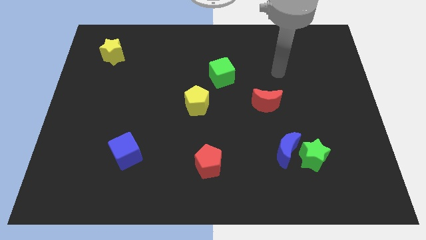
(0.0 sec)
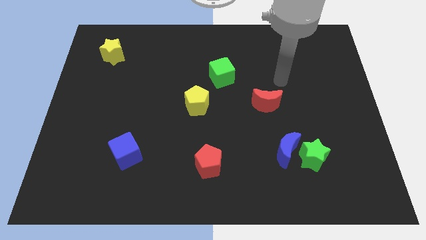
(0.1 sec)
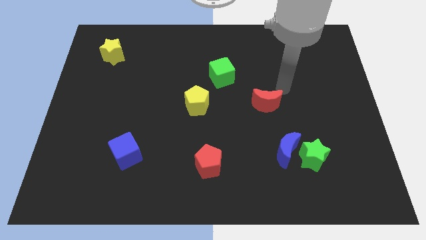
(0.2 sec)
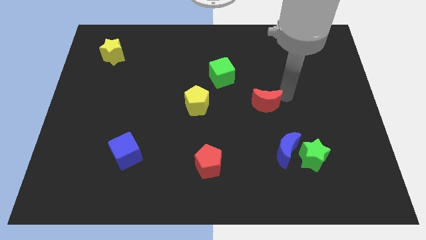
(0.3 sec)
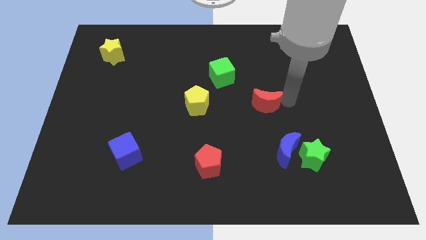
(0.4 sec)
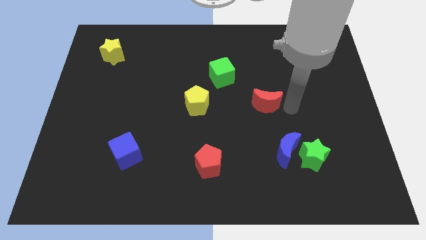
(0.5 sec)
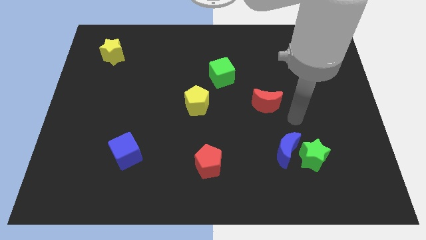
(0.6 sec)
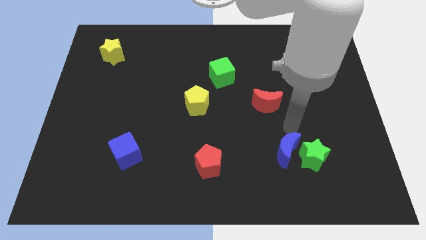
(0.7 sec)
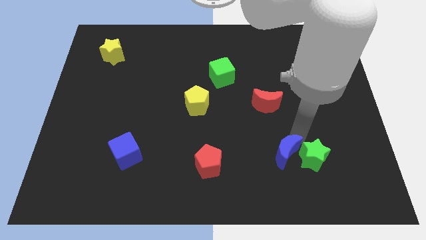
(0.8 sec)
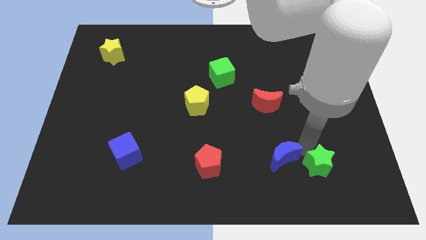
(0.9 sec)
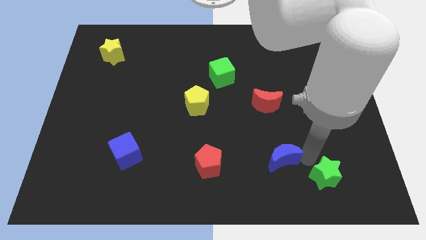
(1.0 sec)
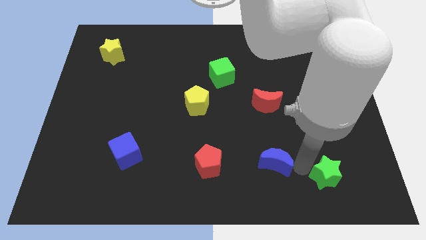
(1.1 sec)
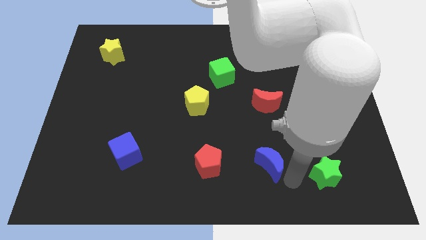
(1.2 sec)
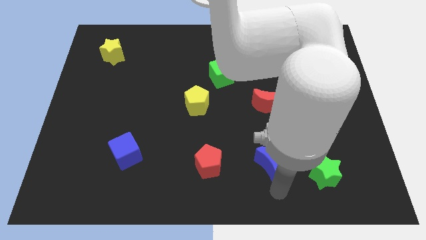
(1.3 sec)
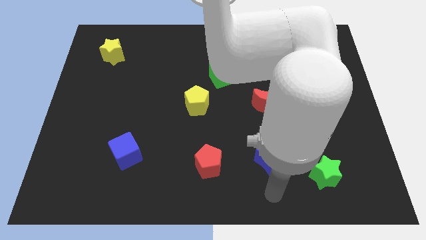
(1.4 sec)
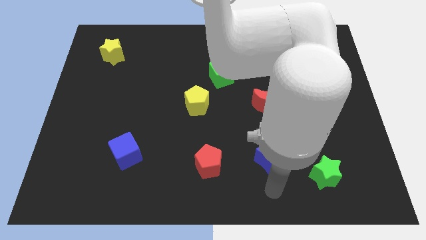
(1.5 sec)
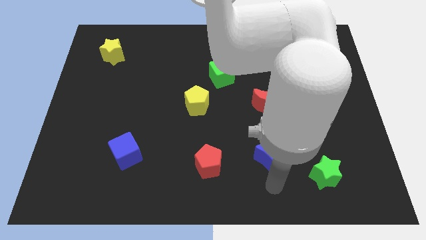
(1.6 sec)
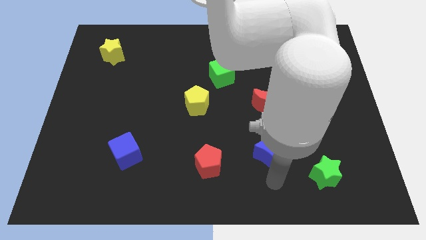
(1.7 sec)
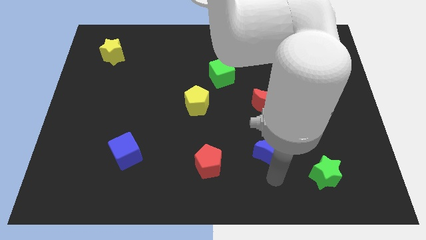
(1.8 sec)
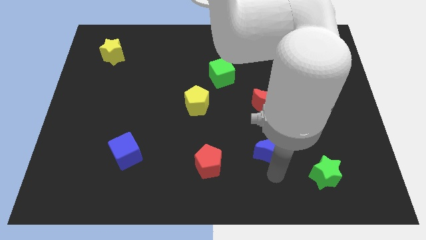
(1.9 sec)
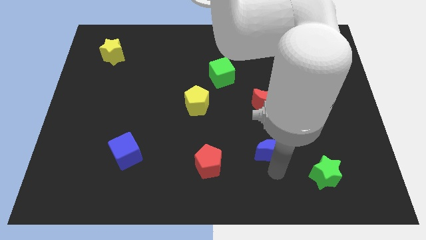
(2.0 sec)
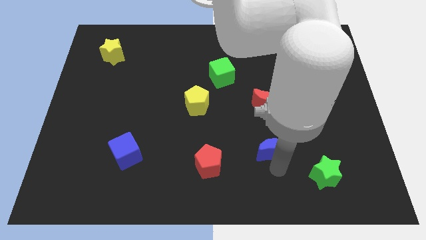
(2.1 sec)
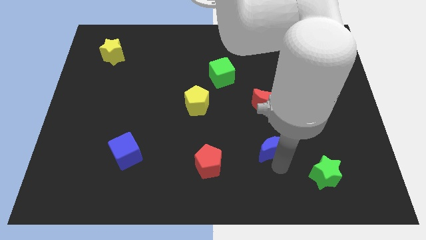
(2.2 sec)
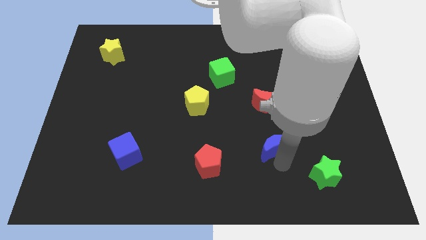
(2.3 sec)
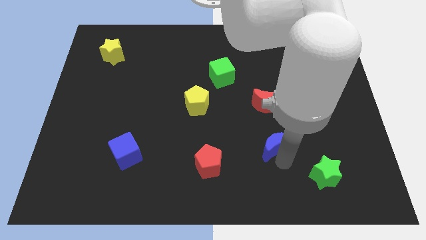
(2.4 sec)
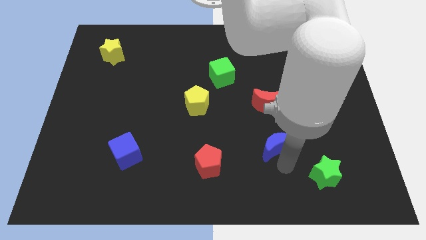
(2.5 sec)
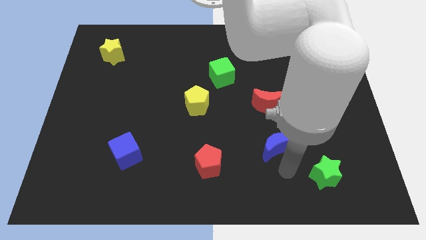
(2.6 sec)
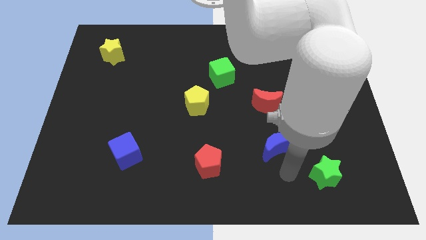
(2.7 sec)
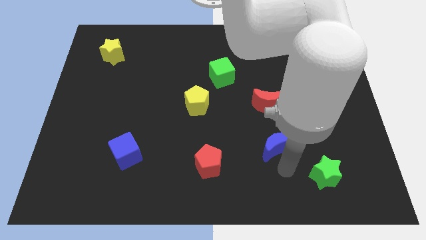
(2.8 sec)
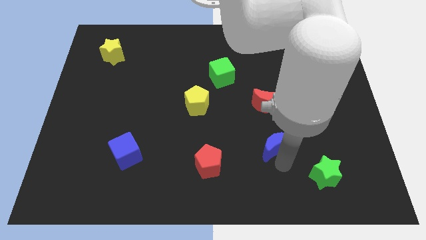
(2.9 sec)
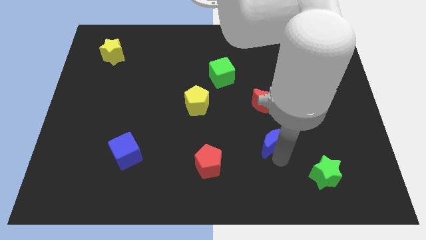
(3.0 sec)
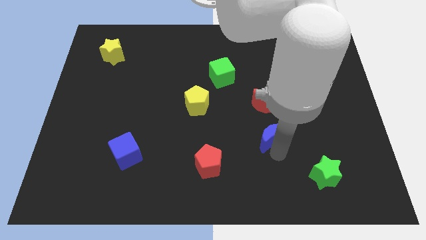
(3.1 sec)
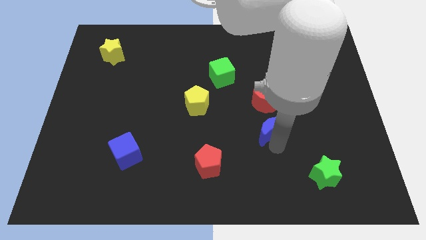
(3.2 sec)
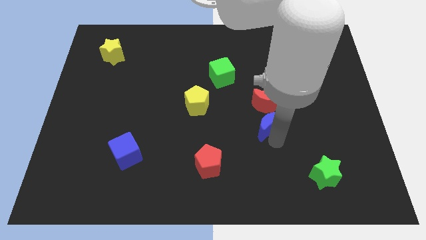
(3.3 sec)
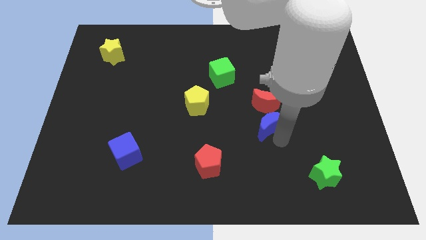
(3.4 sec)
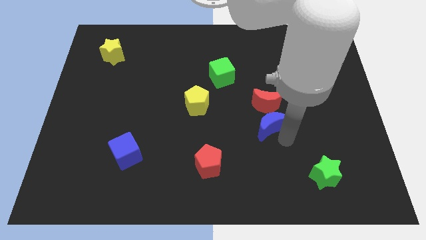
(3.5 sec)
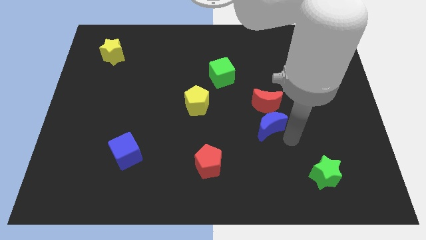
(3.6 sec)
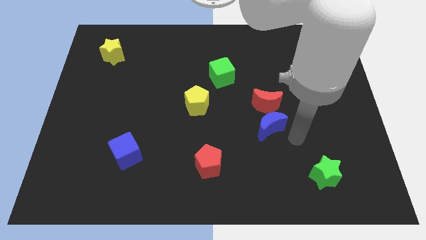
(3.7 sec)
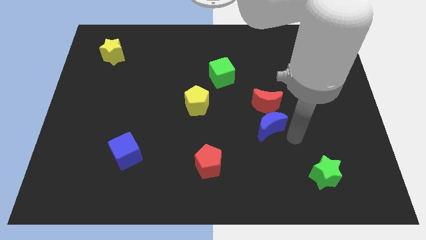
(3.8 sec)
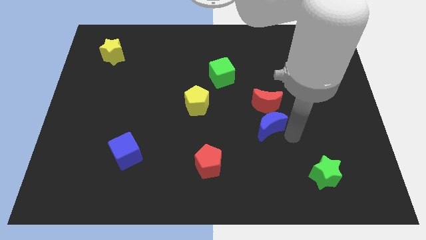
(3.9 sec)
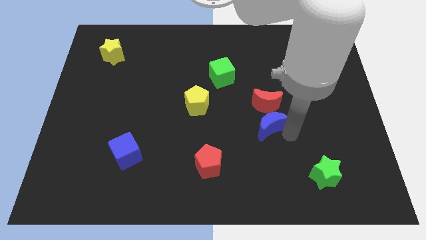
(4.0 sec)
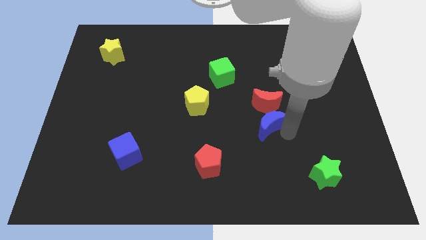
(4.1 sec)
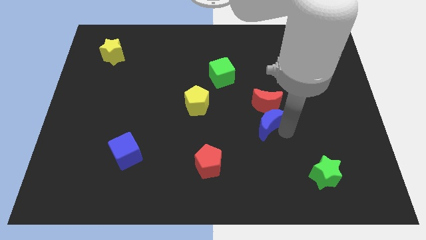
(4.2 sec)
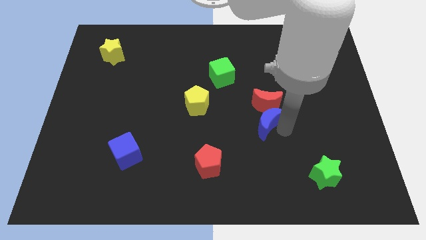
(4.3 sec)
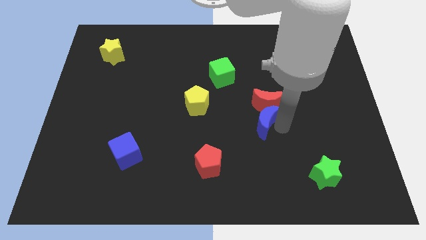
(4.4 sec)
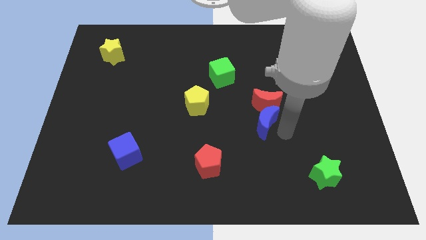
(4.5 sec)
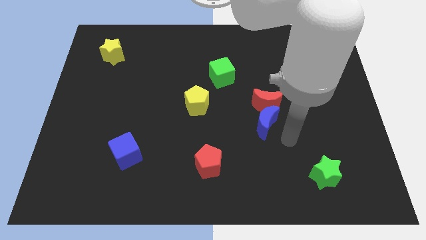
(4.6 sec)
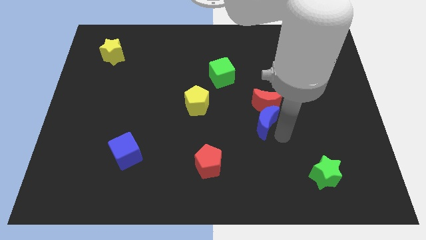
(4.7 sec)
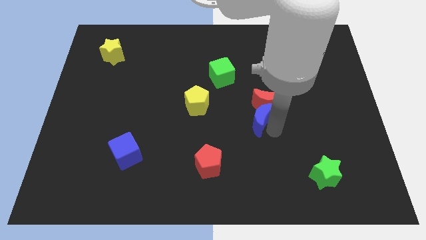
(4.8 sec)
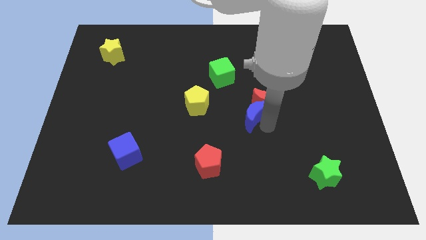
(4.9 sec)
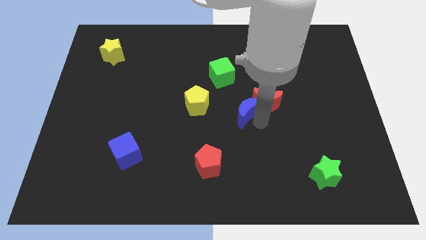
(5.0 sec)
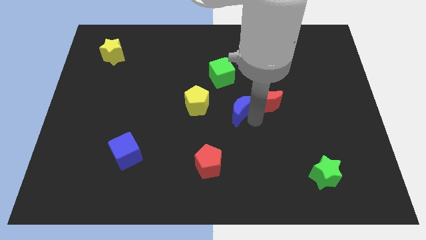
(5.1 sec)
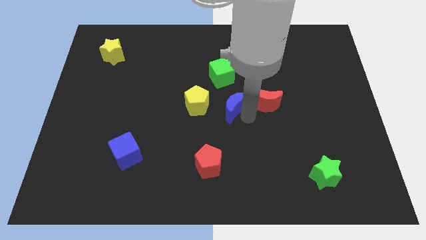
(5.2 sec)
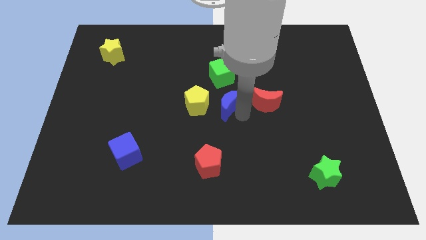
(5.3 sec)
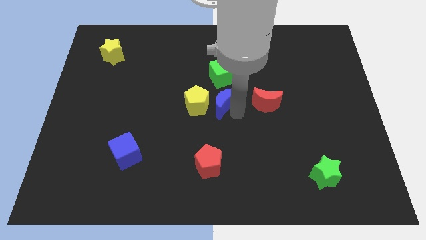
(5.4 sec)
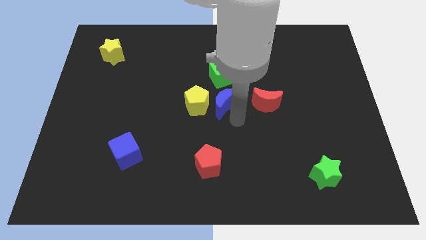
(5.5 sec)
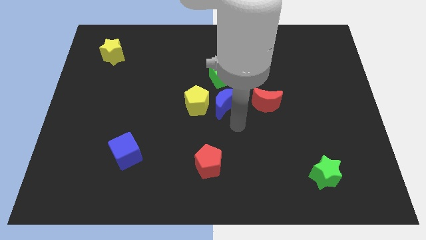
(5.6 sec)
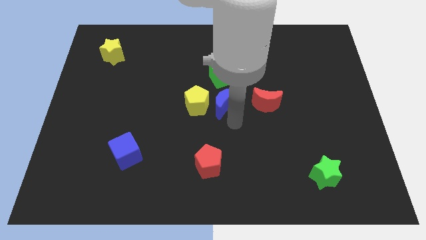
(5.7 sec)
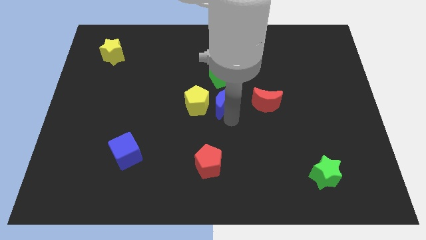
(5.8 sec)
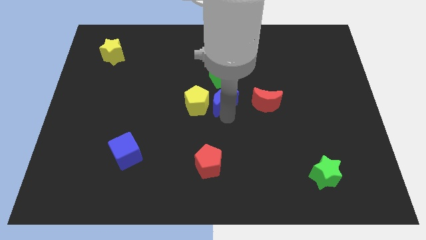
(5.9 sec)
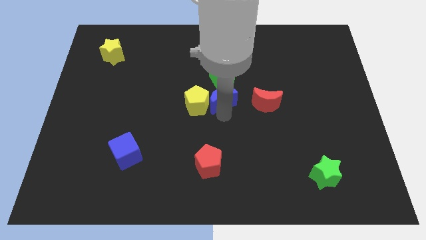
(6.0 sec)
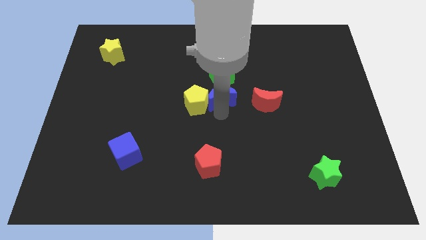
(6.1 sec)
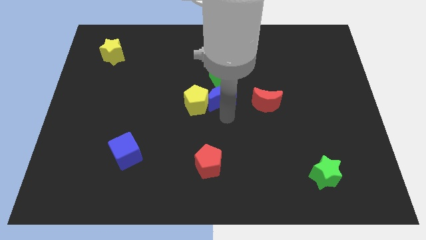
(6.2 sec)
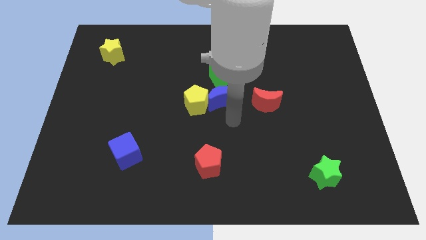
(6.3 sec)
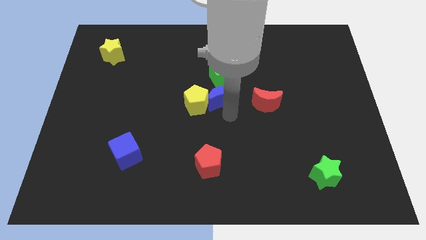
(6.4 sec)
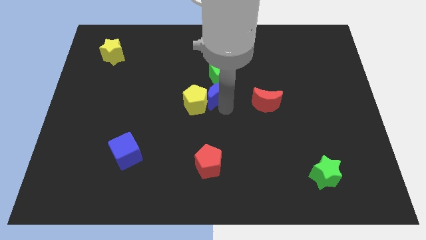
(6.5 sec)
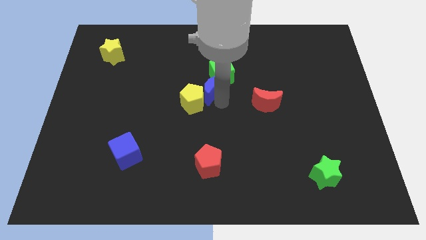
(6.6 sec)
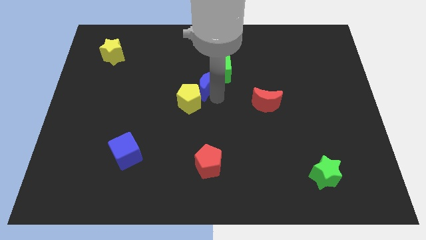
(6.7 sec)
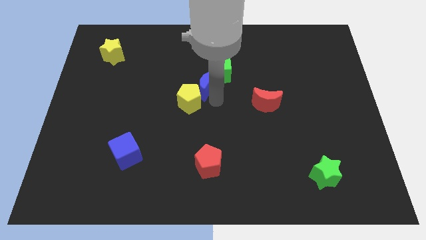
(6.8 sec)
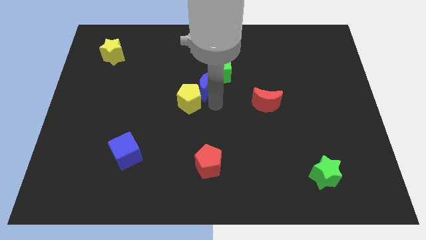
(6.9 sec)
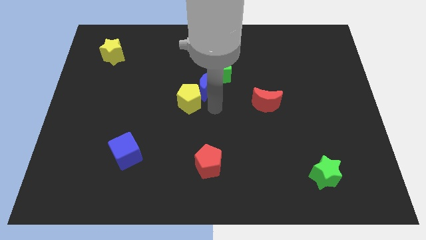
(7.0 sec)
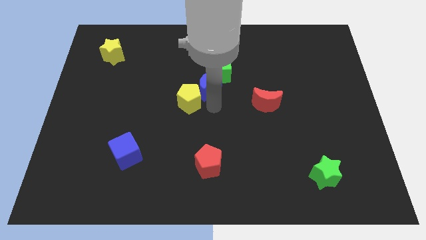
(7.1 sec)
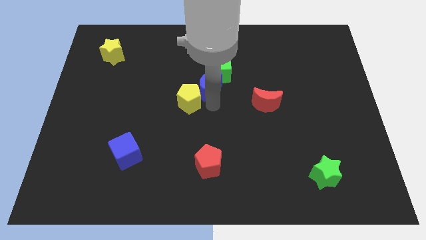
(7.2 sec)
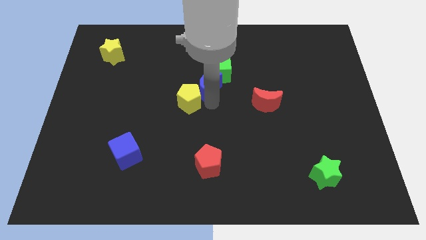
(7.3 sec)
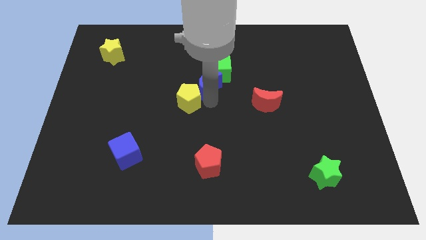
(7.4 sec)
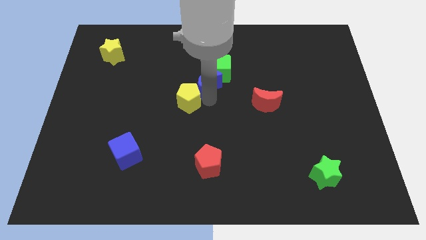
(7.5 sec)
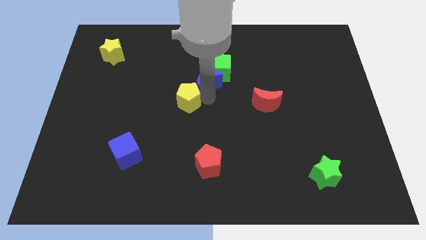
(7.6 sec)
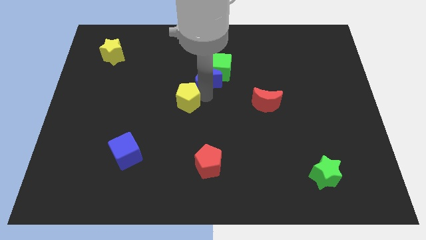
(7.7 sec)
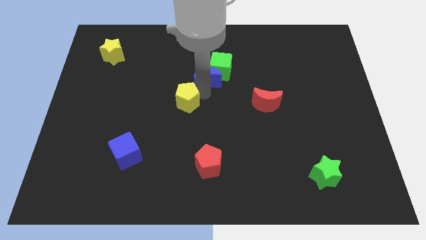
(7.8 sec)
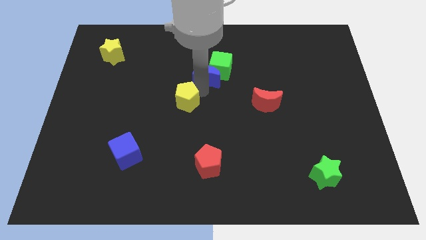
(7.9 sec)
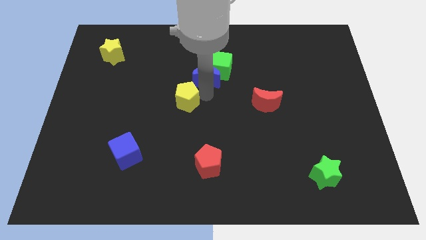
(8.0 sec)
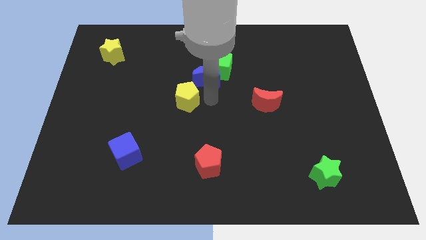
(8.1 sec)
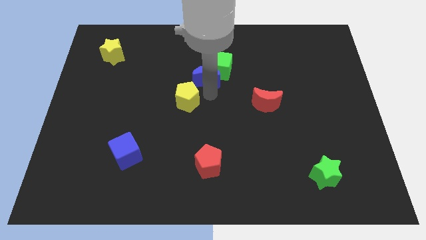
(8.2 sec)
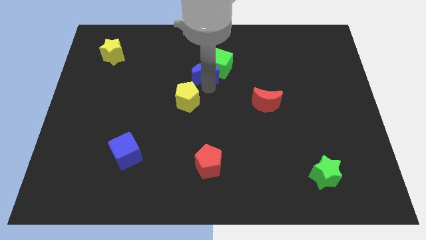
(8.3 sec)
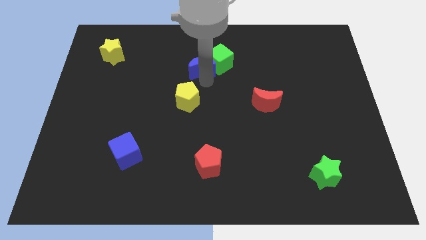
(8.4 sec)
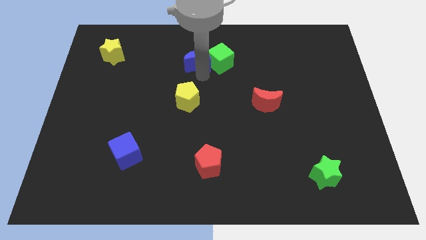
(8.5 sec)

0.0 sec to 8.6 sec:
slide the blue moon diagonally up and to the left of the green cube
